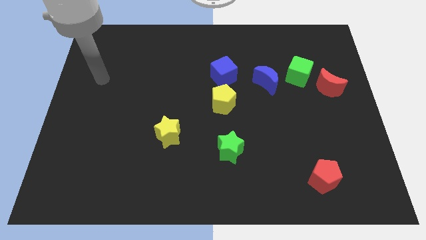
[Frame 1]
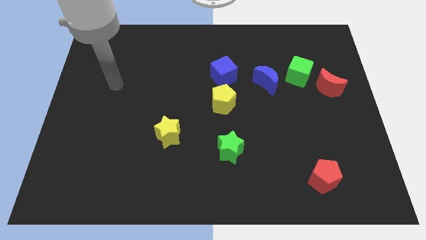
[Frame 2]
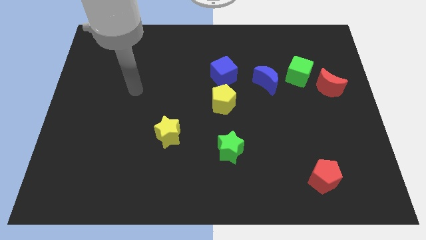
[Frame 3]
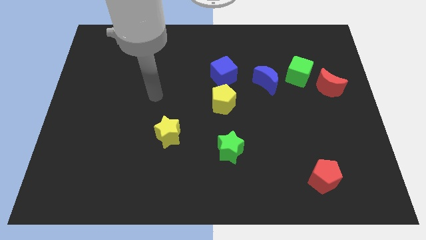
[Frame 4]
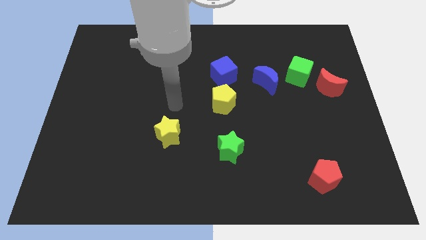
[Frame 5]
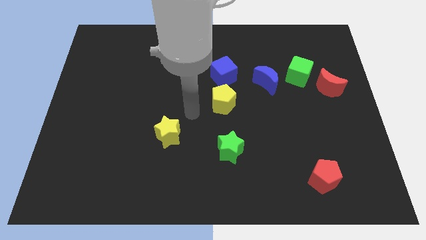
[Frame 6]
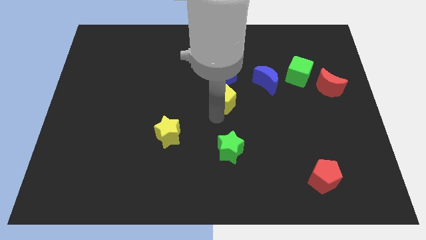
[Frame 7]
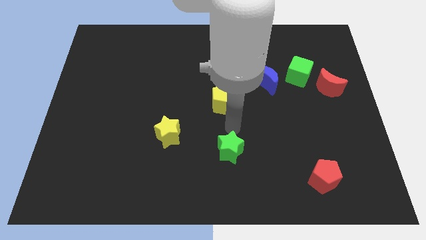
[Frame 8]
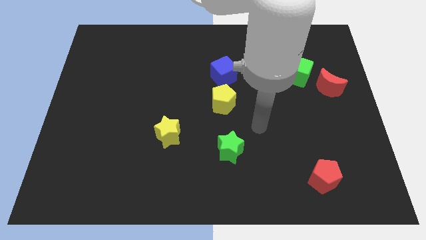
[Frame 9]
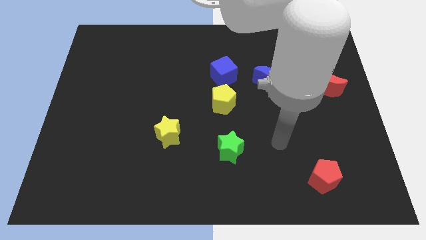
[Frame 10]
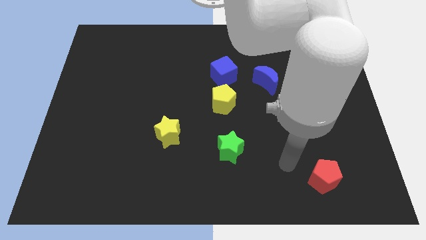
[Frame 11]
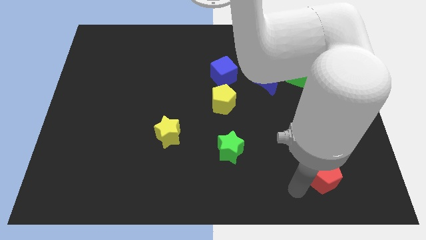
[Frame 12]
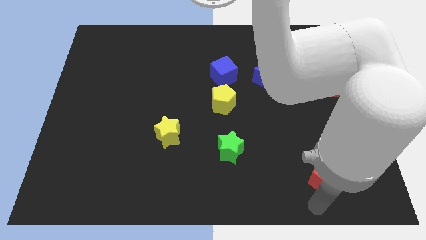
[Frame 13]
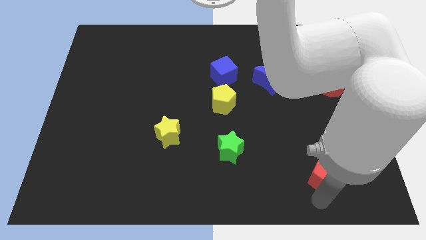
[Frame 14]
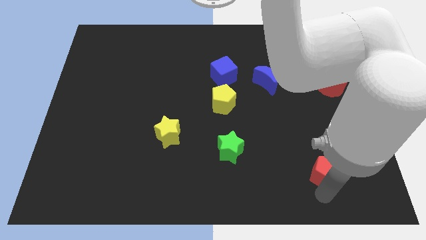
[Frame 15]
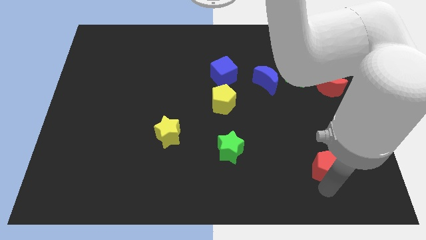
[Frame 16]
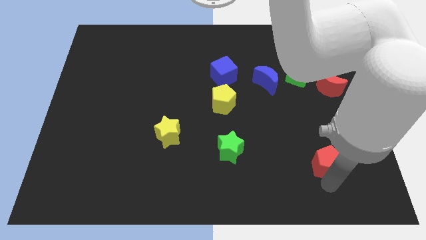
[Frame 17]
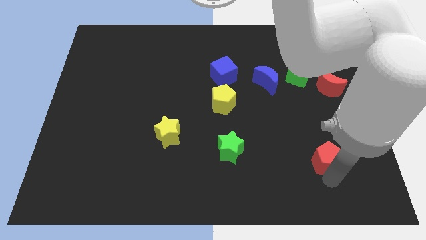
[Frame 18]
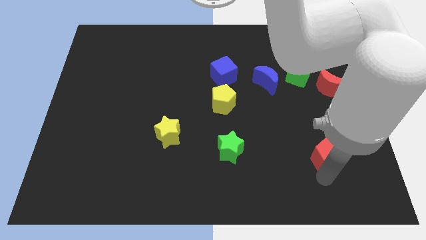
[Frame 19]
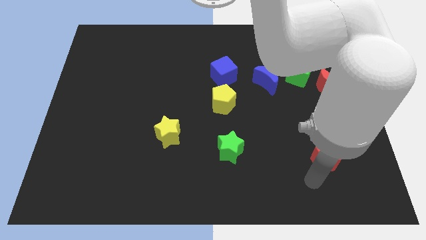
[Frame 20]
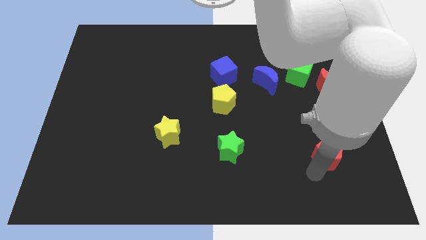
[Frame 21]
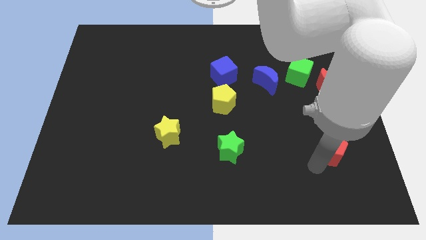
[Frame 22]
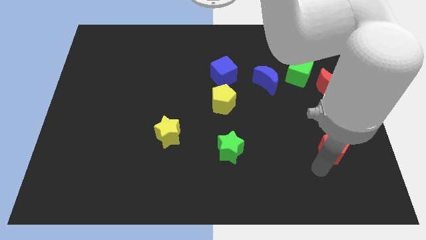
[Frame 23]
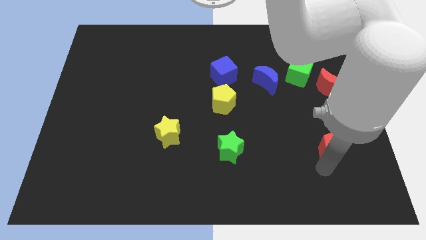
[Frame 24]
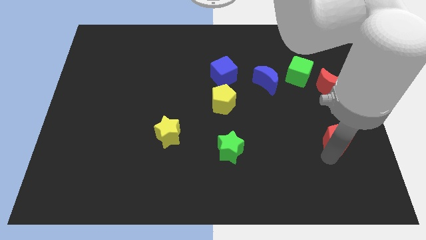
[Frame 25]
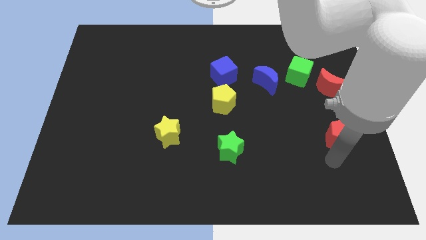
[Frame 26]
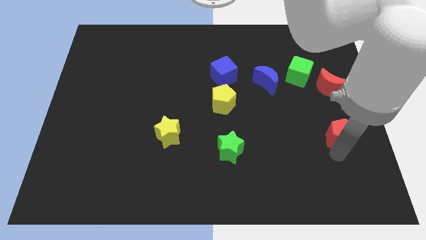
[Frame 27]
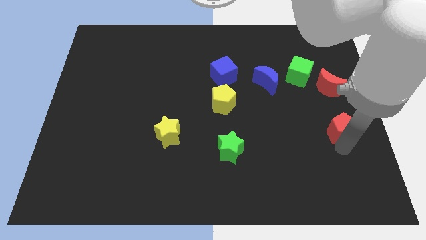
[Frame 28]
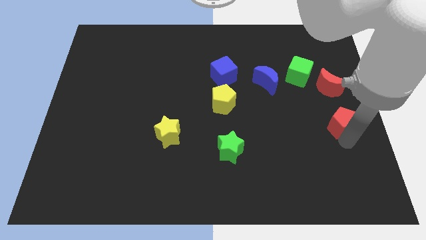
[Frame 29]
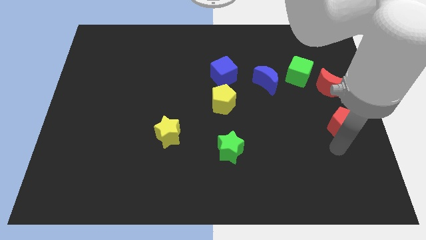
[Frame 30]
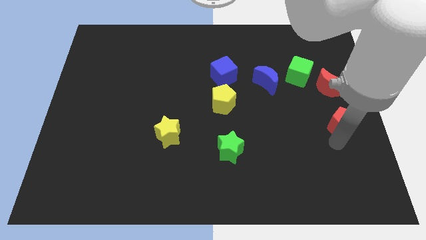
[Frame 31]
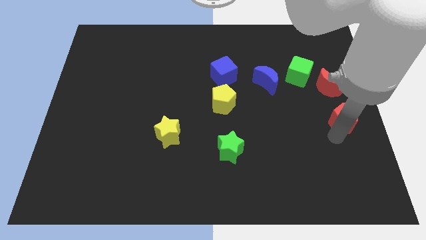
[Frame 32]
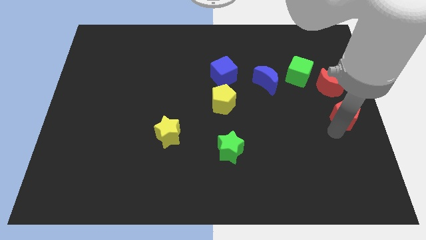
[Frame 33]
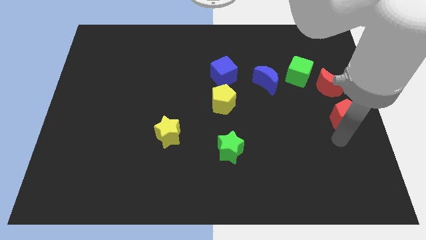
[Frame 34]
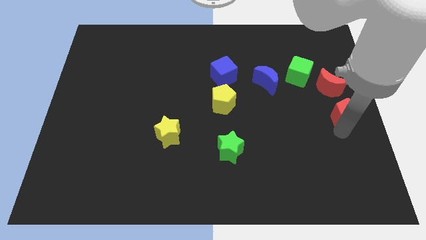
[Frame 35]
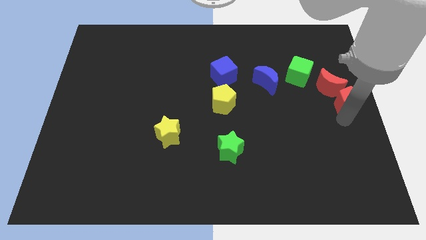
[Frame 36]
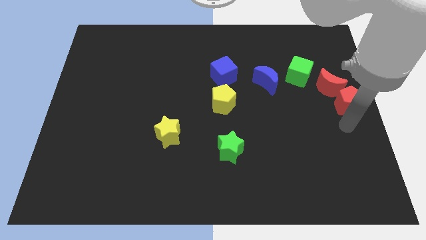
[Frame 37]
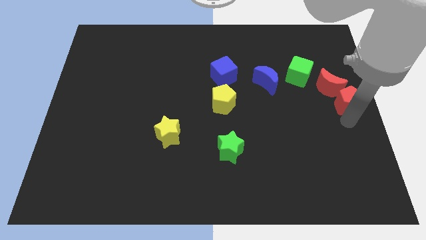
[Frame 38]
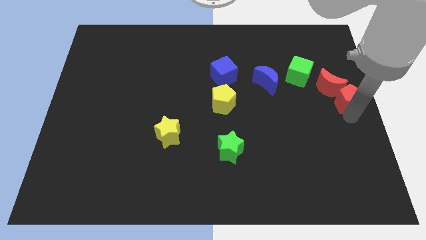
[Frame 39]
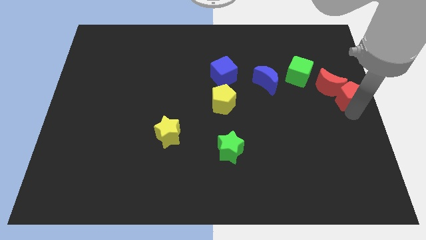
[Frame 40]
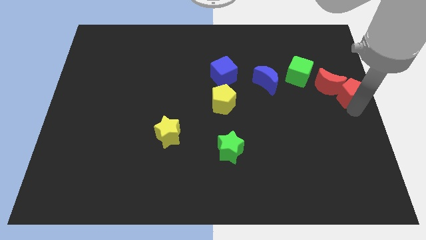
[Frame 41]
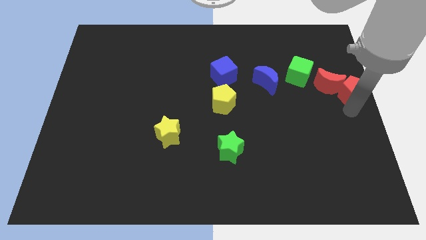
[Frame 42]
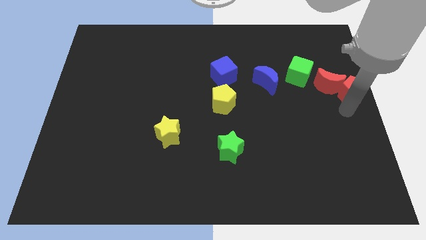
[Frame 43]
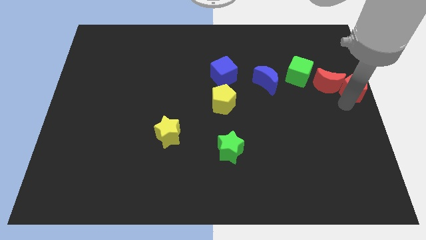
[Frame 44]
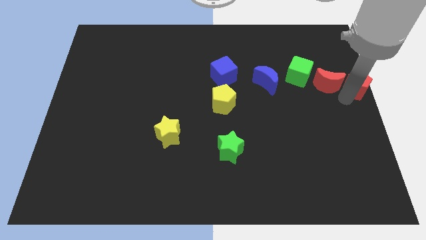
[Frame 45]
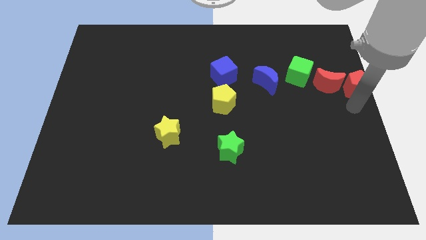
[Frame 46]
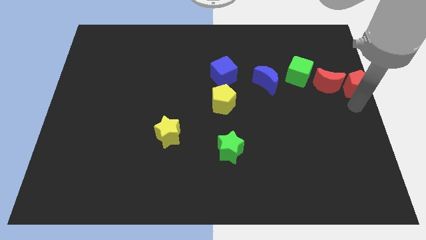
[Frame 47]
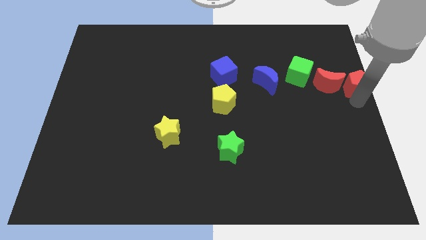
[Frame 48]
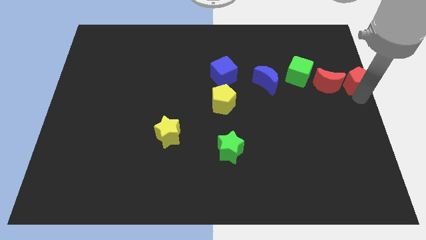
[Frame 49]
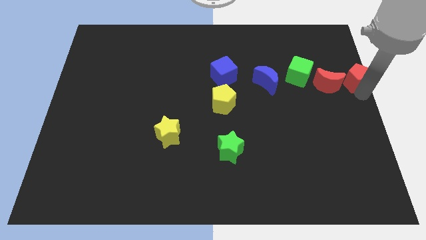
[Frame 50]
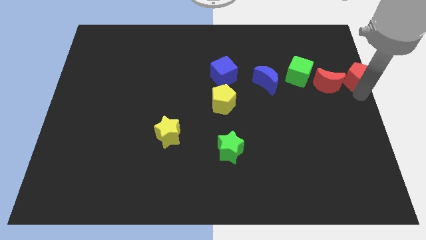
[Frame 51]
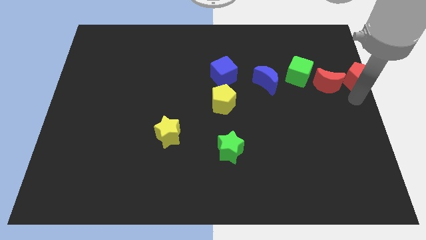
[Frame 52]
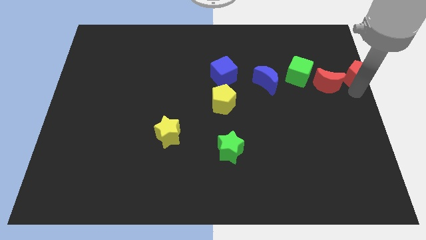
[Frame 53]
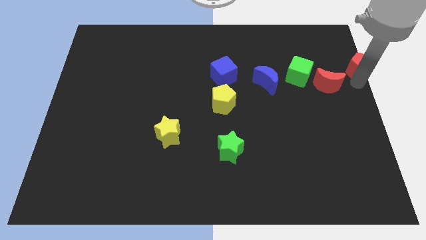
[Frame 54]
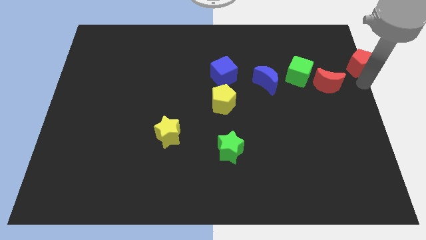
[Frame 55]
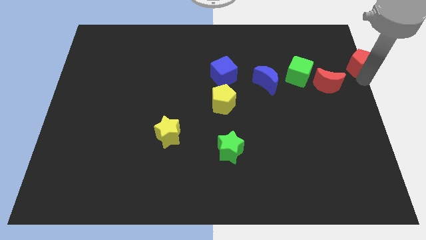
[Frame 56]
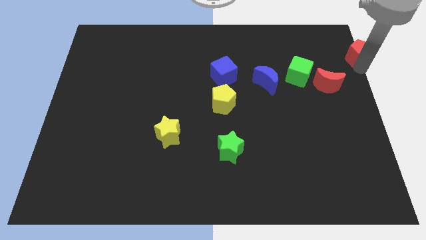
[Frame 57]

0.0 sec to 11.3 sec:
push the red pentagon to the top right corner
